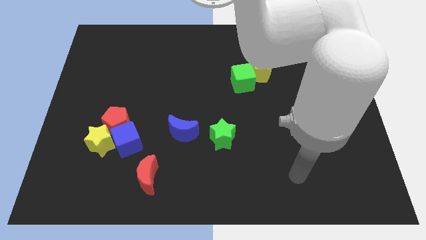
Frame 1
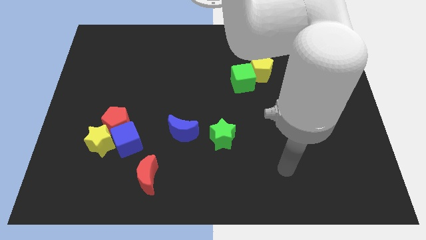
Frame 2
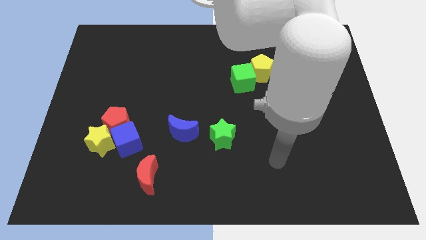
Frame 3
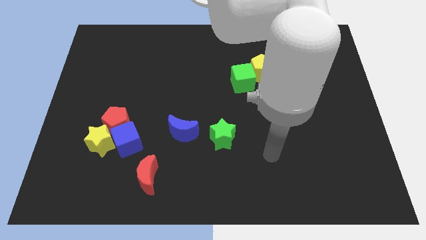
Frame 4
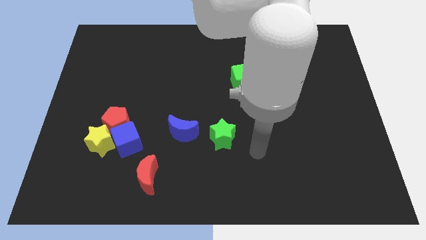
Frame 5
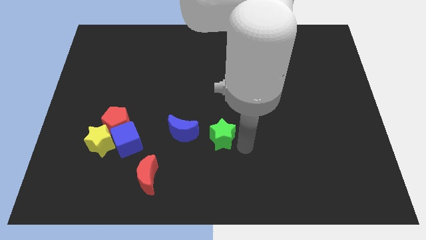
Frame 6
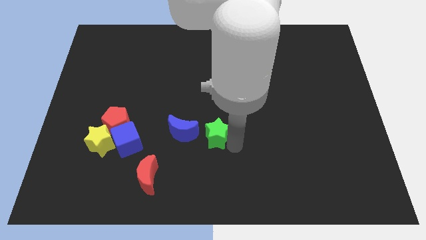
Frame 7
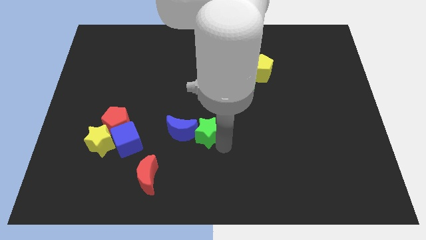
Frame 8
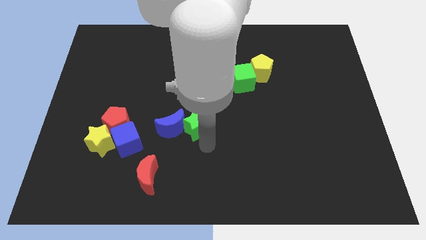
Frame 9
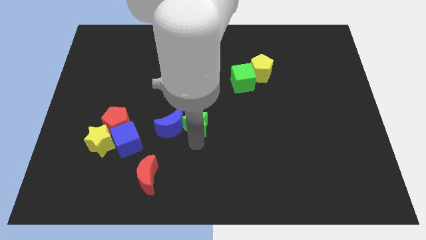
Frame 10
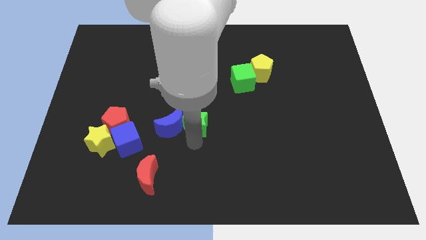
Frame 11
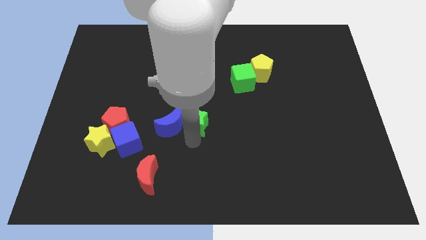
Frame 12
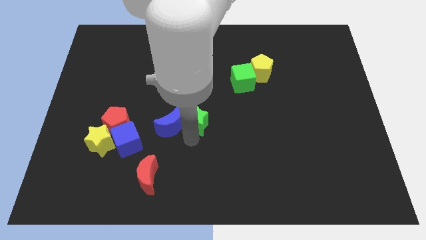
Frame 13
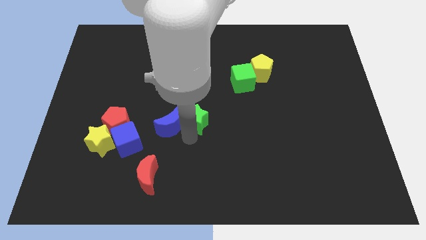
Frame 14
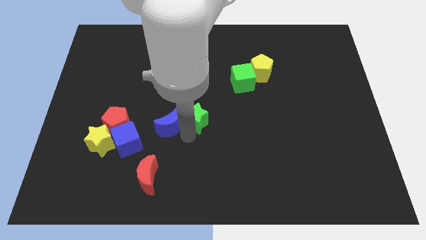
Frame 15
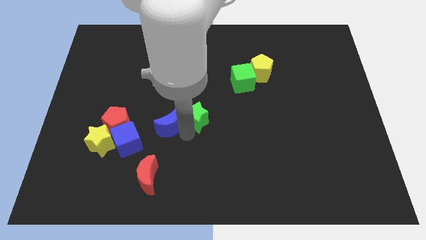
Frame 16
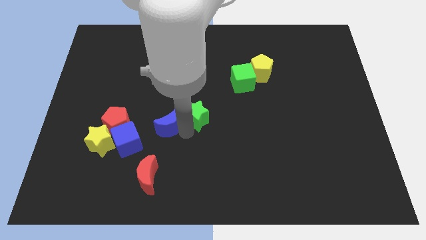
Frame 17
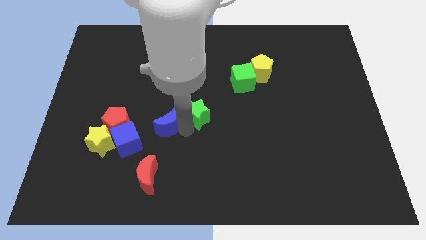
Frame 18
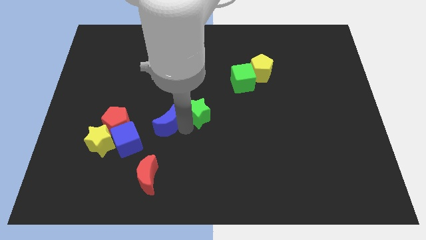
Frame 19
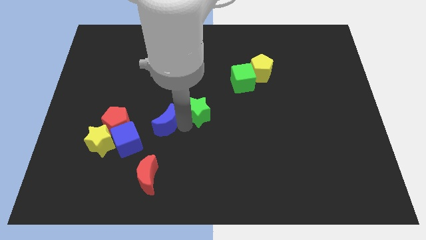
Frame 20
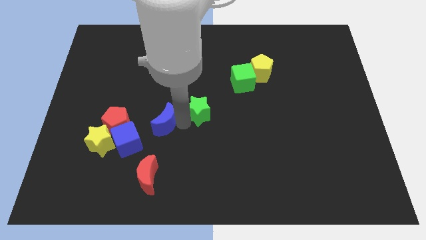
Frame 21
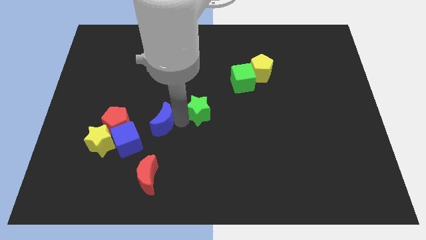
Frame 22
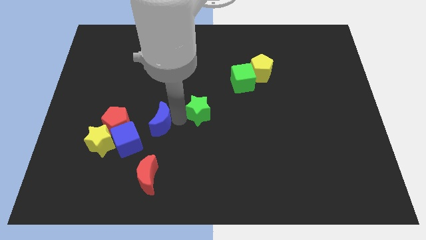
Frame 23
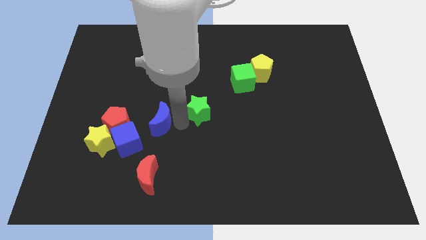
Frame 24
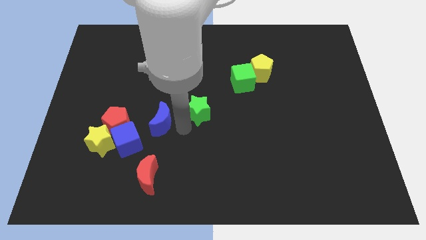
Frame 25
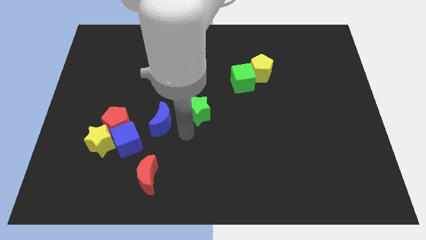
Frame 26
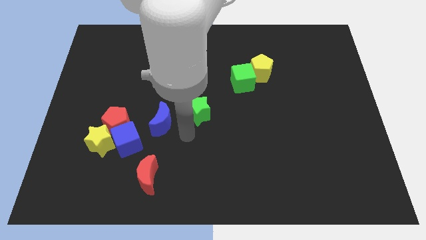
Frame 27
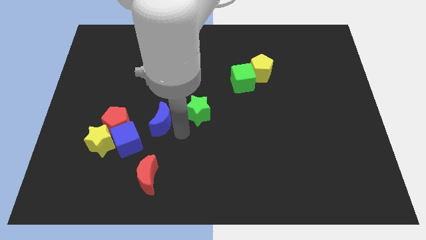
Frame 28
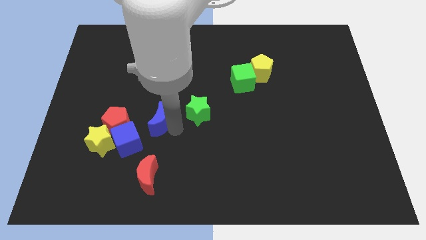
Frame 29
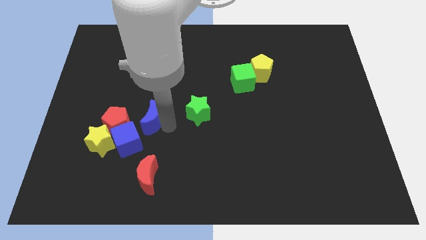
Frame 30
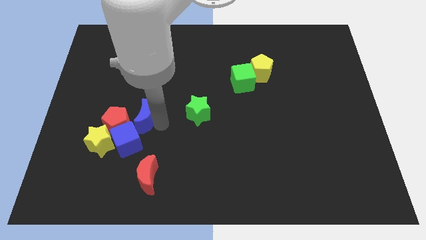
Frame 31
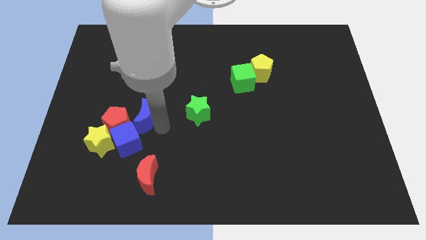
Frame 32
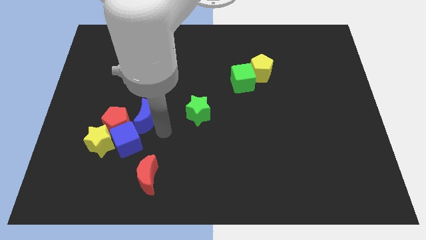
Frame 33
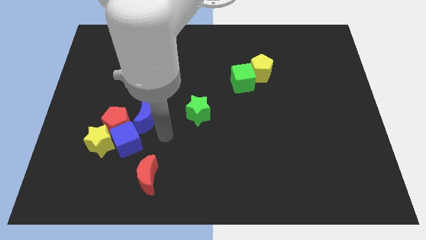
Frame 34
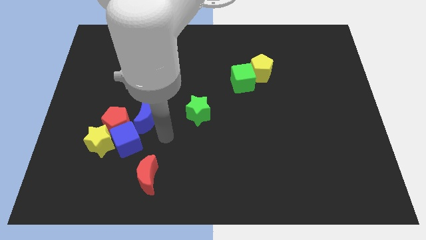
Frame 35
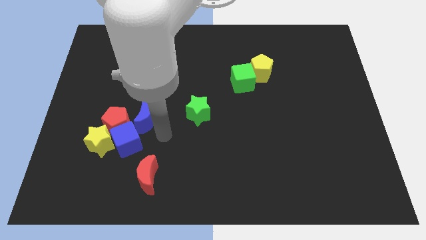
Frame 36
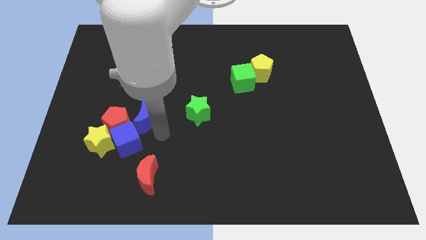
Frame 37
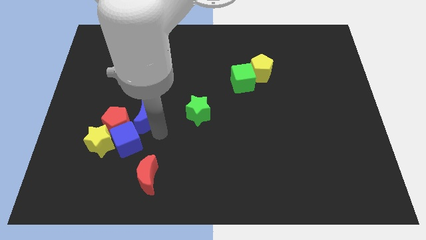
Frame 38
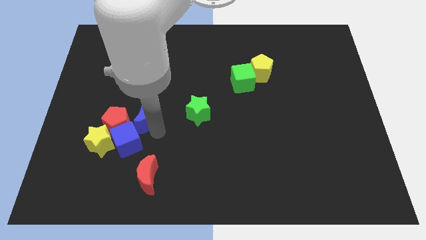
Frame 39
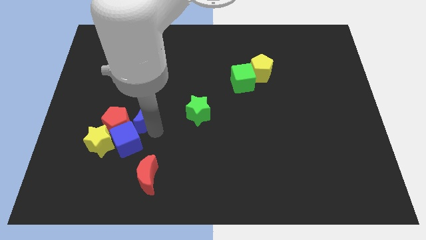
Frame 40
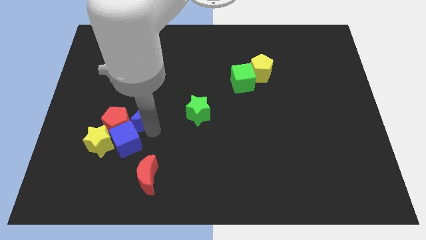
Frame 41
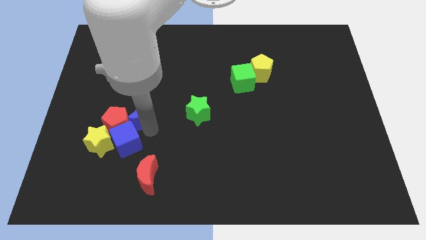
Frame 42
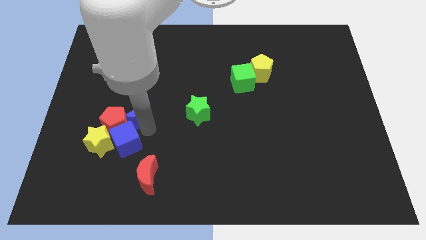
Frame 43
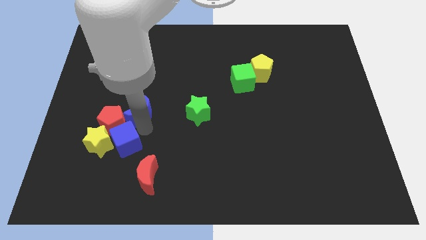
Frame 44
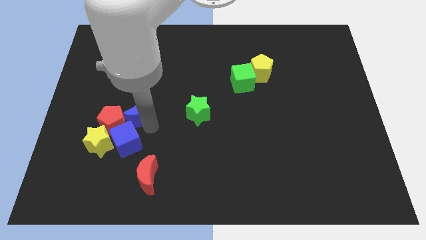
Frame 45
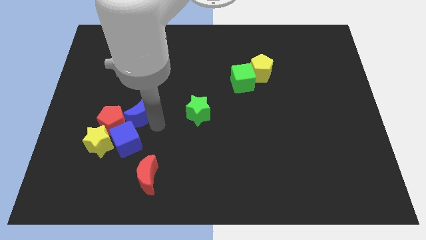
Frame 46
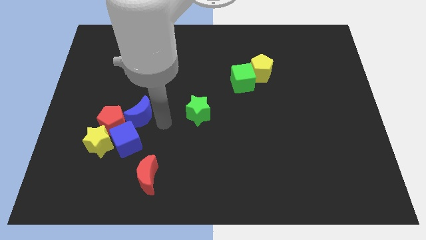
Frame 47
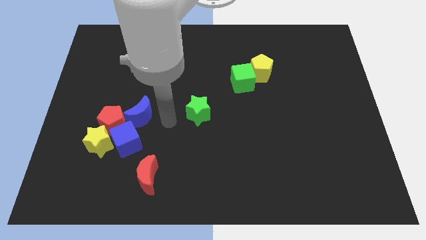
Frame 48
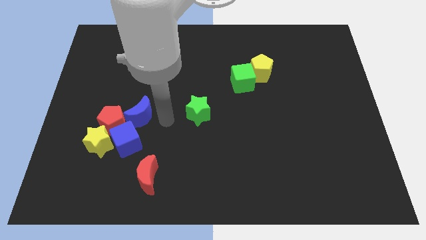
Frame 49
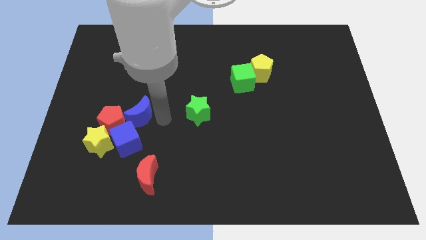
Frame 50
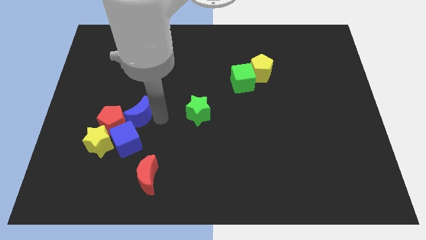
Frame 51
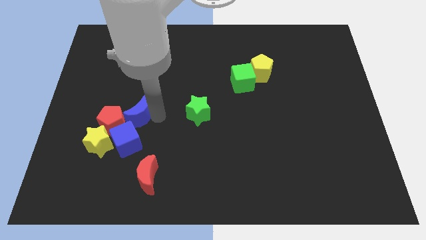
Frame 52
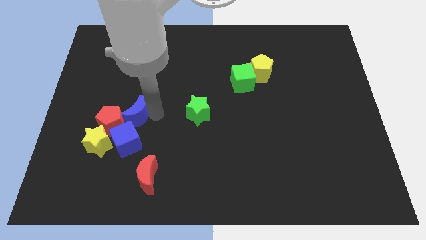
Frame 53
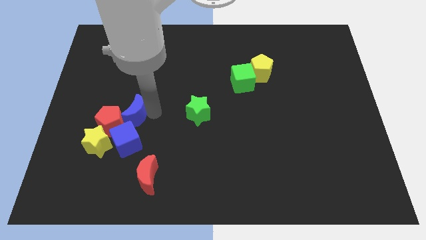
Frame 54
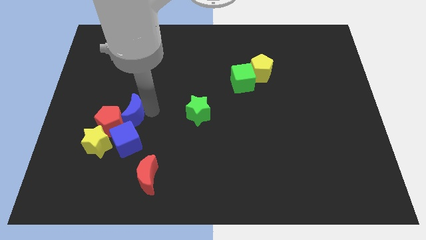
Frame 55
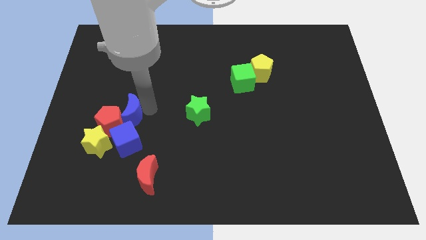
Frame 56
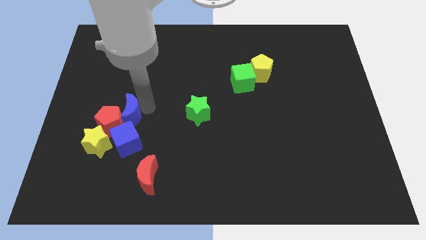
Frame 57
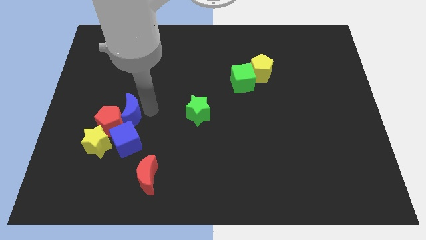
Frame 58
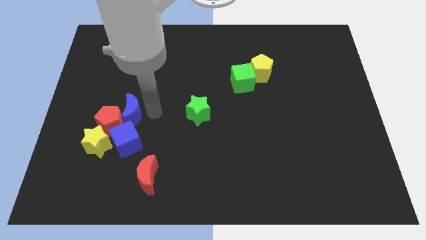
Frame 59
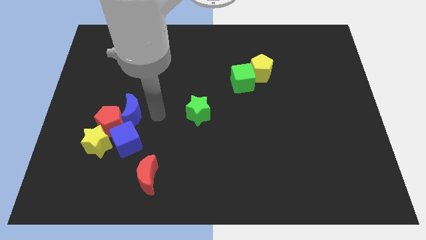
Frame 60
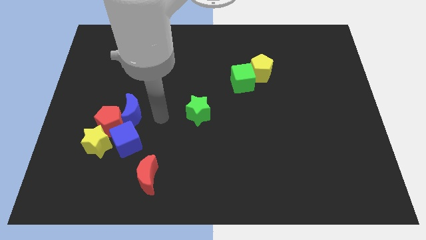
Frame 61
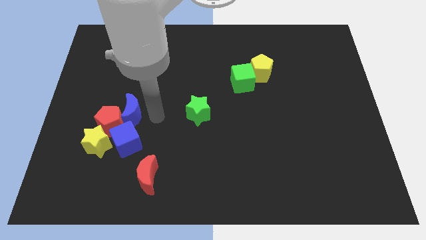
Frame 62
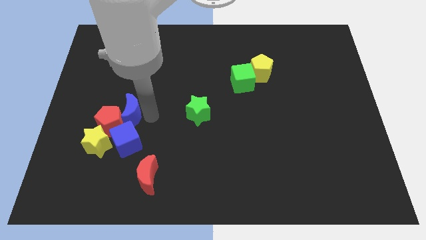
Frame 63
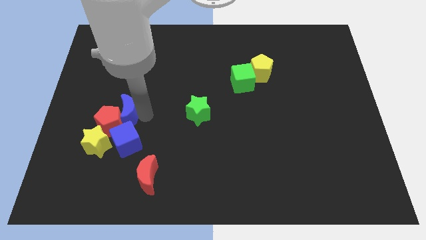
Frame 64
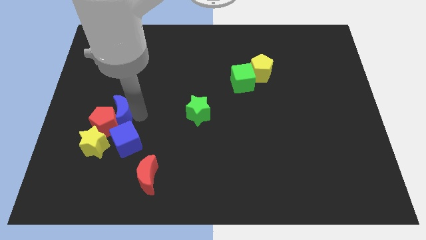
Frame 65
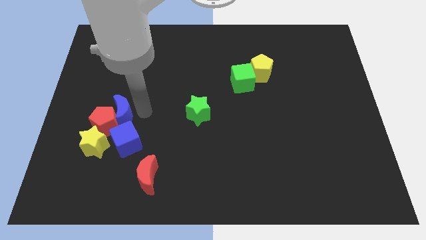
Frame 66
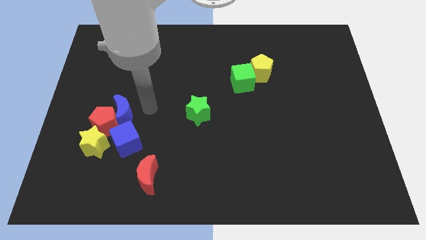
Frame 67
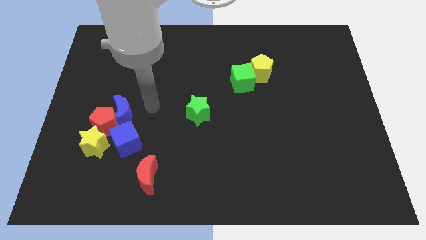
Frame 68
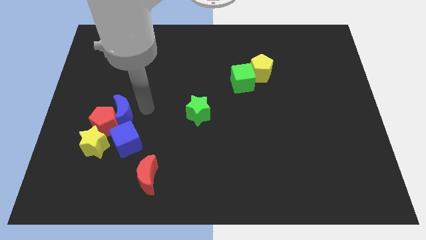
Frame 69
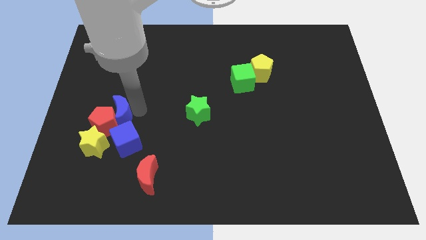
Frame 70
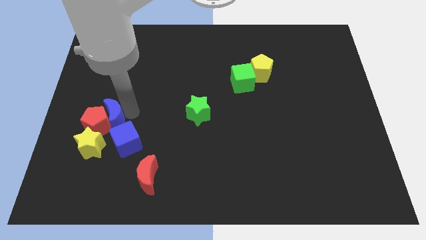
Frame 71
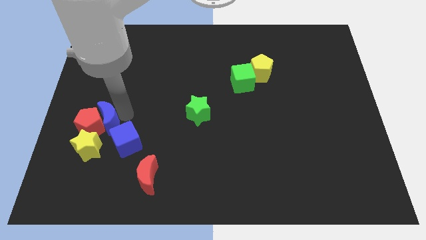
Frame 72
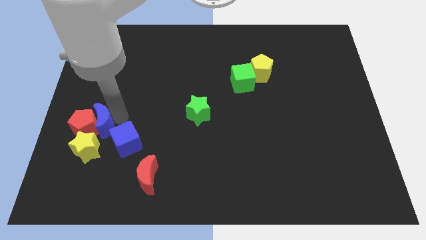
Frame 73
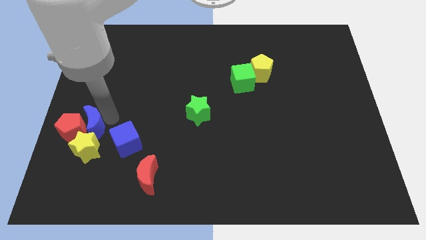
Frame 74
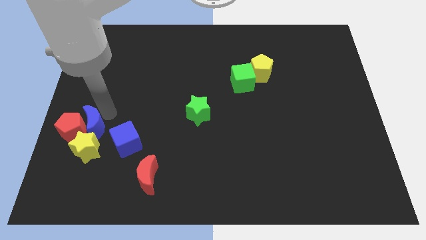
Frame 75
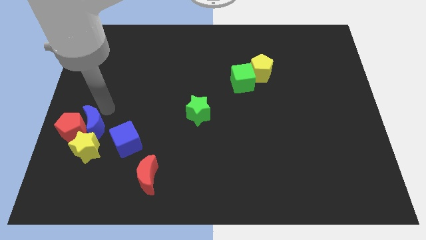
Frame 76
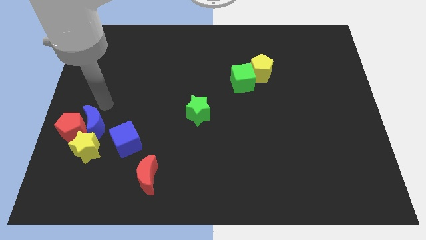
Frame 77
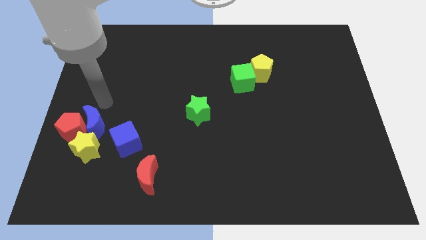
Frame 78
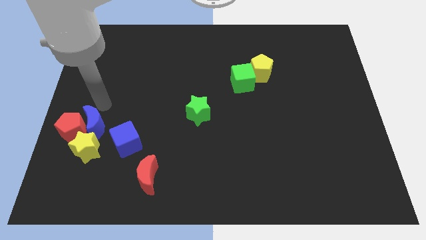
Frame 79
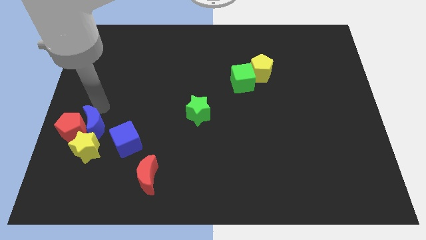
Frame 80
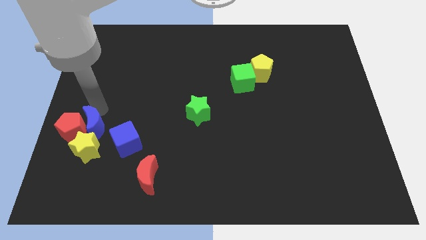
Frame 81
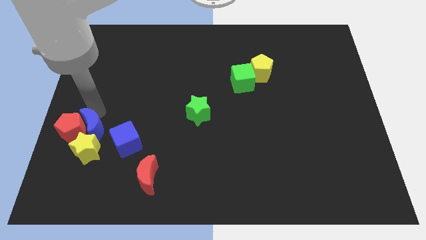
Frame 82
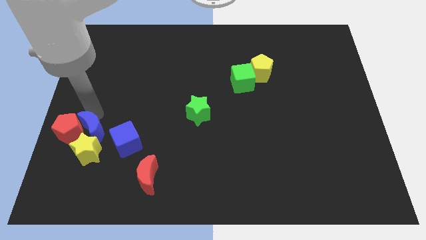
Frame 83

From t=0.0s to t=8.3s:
slide the blue moon close to the yellow star
